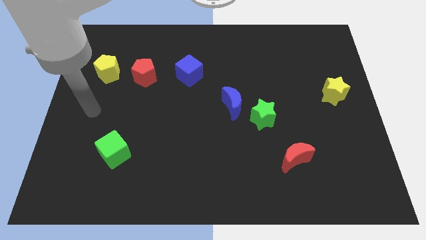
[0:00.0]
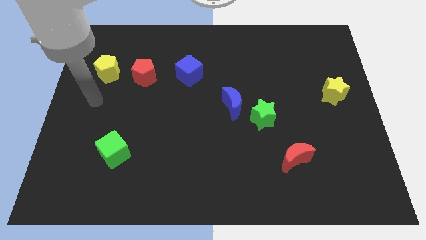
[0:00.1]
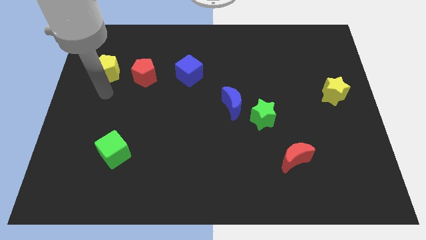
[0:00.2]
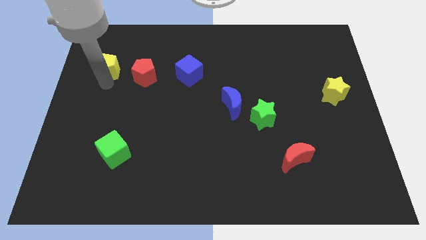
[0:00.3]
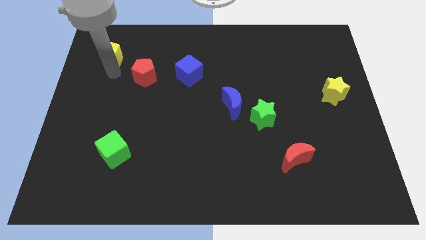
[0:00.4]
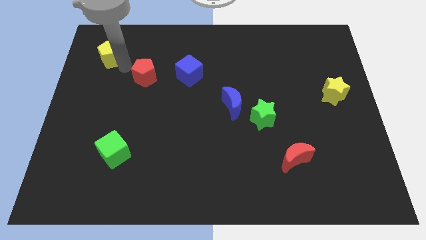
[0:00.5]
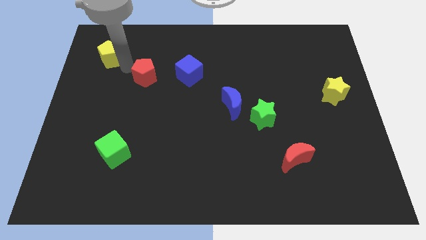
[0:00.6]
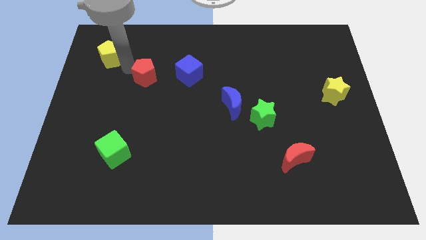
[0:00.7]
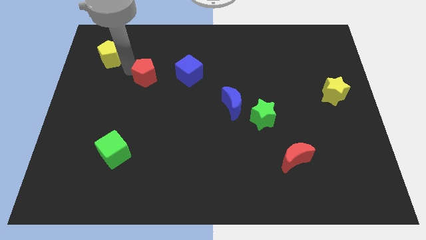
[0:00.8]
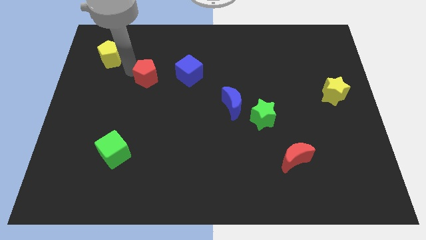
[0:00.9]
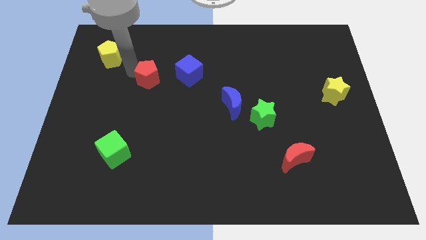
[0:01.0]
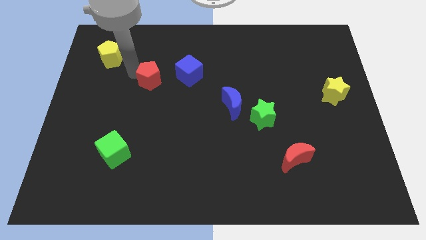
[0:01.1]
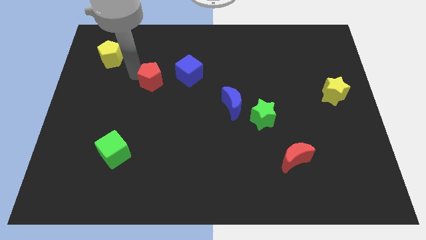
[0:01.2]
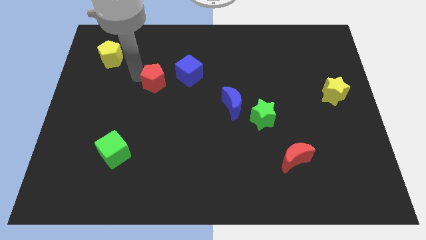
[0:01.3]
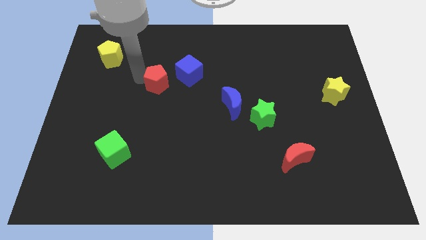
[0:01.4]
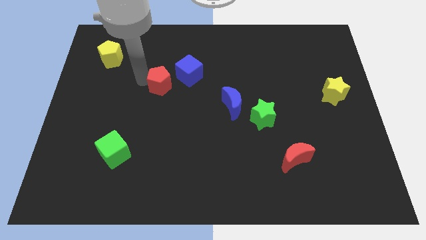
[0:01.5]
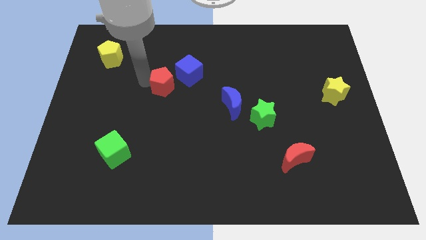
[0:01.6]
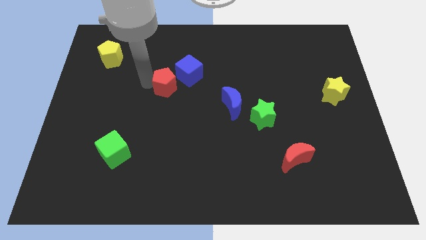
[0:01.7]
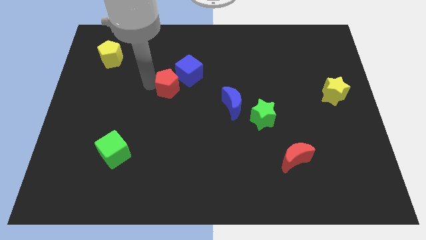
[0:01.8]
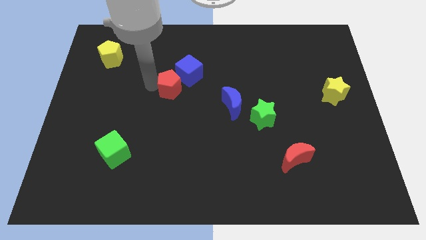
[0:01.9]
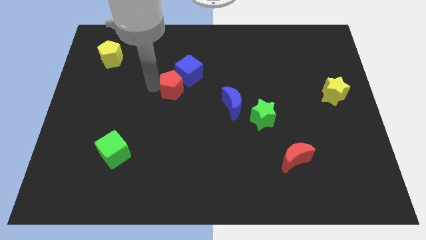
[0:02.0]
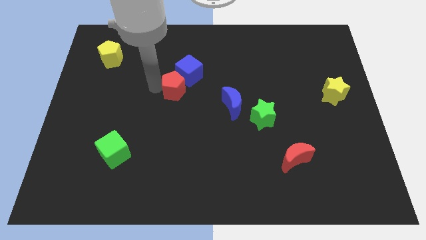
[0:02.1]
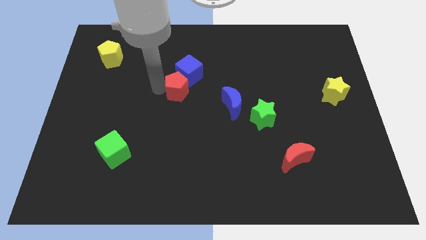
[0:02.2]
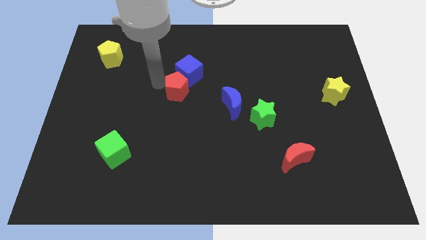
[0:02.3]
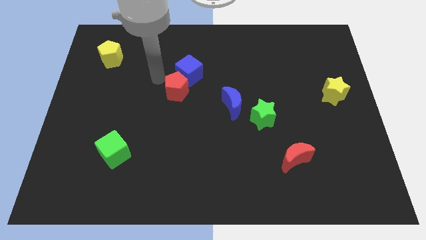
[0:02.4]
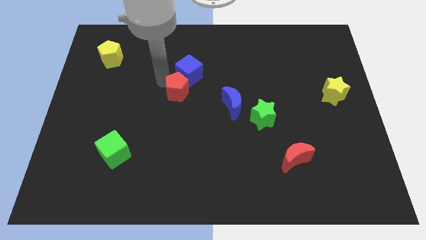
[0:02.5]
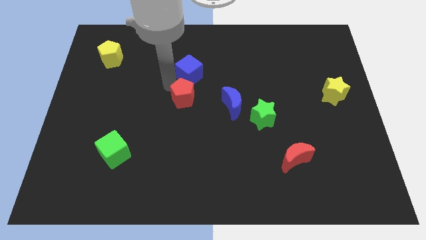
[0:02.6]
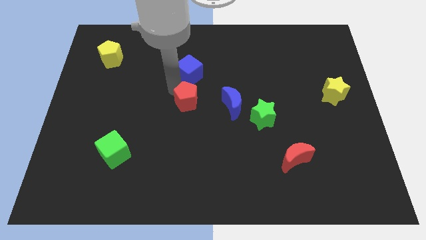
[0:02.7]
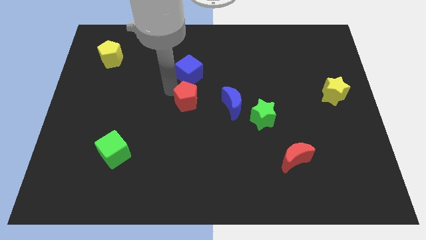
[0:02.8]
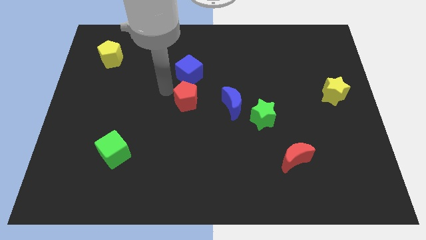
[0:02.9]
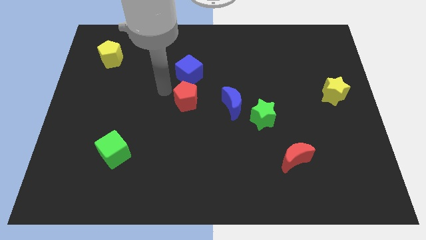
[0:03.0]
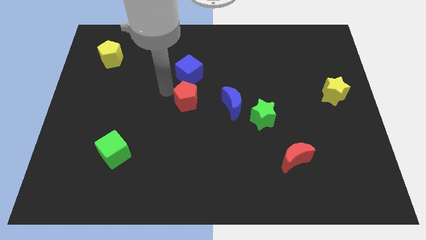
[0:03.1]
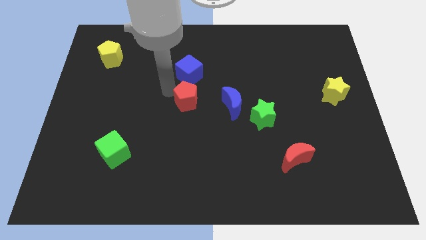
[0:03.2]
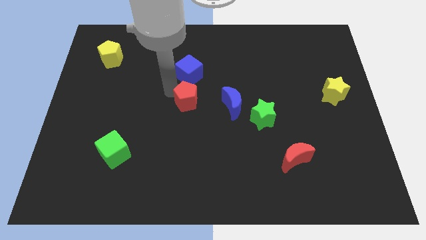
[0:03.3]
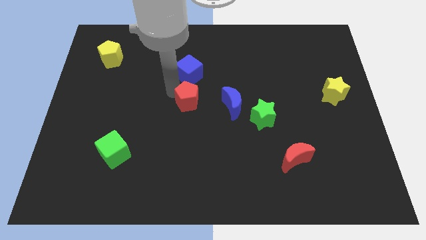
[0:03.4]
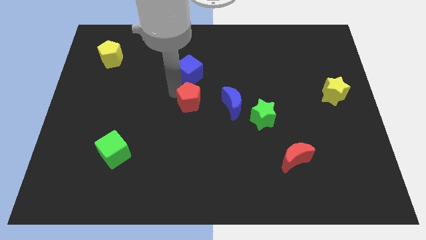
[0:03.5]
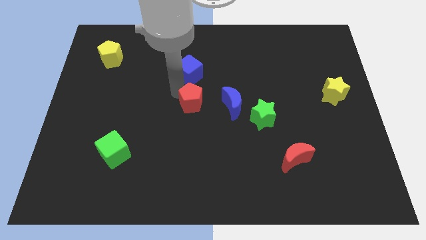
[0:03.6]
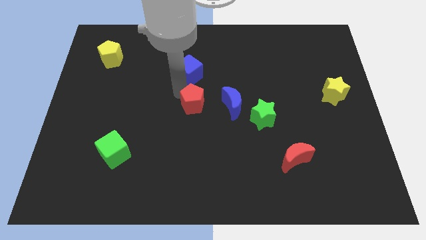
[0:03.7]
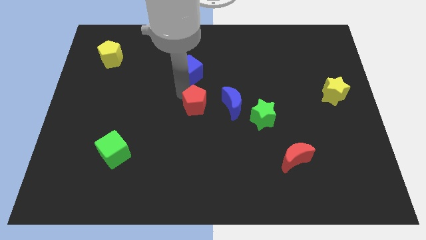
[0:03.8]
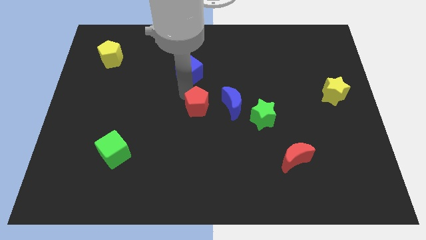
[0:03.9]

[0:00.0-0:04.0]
put the red pentagon to the left of the green star

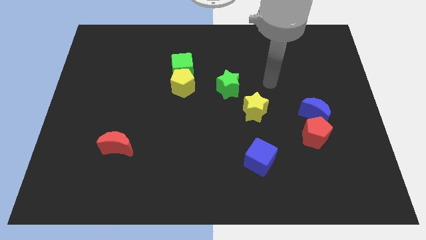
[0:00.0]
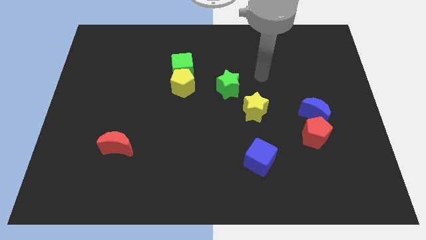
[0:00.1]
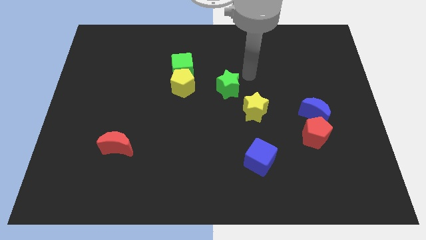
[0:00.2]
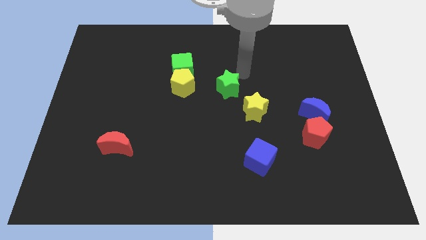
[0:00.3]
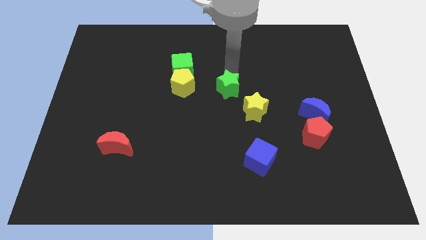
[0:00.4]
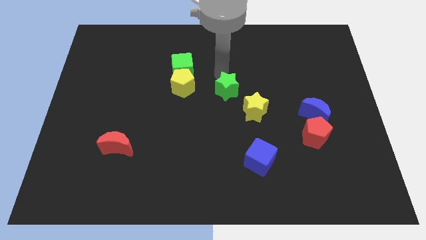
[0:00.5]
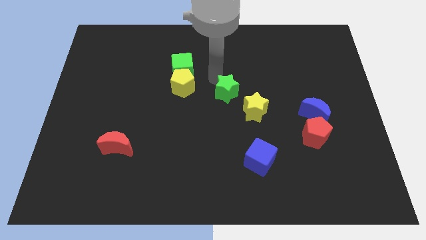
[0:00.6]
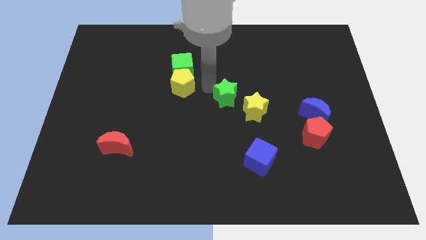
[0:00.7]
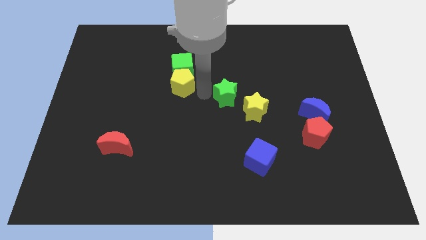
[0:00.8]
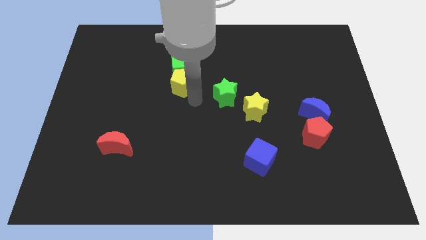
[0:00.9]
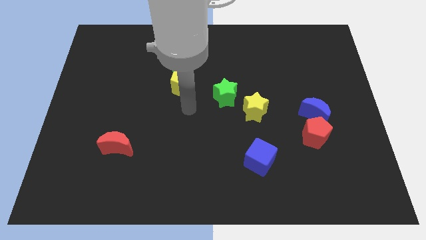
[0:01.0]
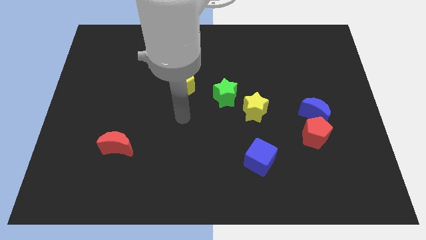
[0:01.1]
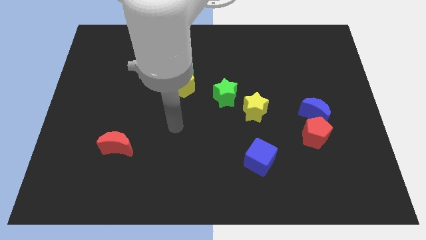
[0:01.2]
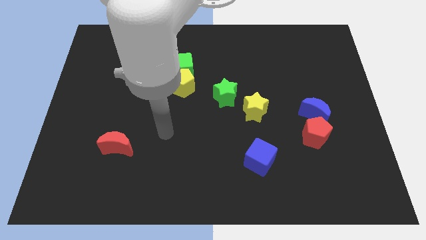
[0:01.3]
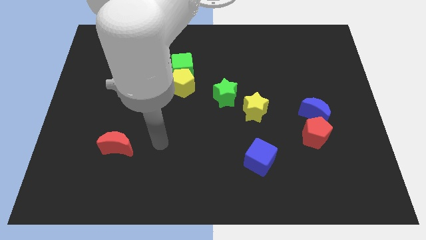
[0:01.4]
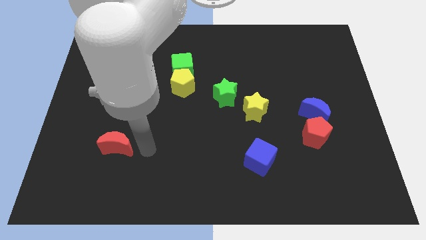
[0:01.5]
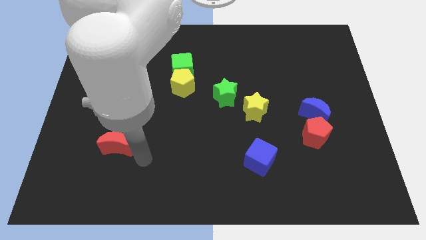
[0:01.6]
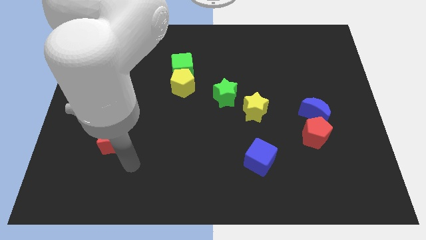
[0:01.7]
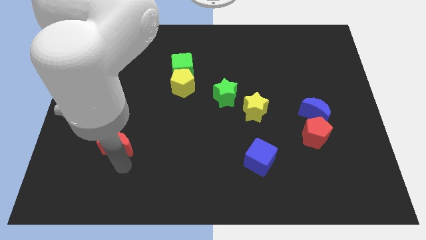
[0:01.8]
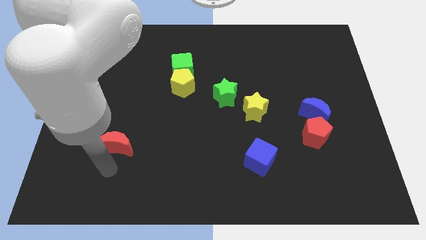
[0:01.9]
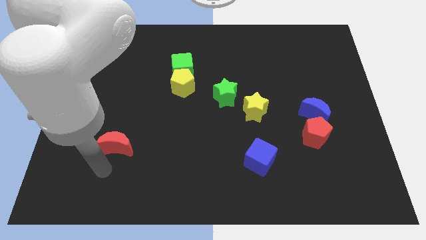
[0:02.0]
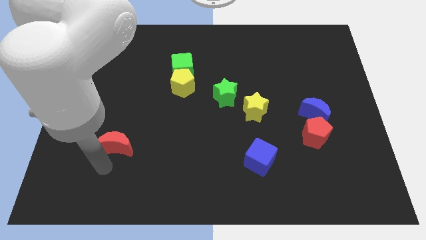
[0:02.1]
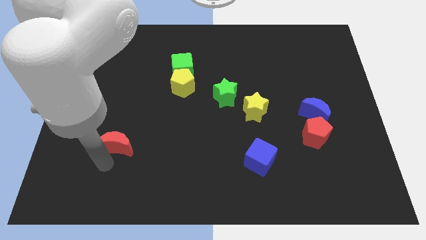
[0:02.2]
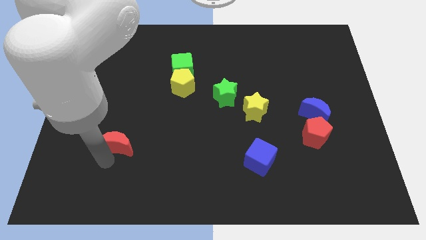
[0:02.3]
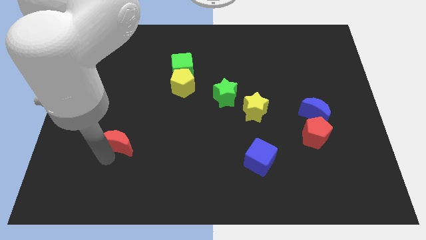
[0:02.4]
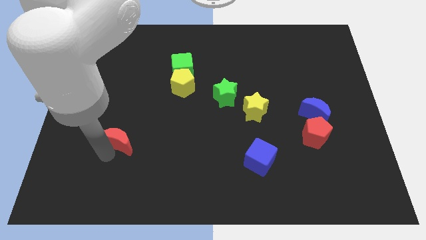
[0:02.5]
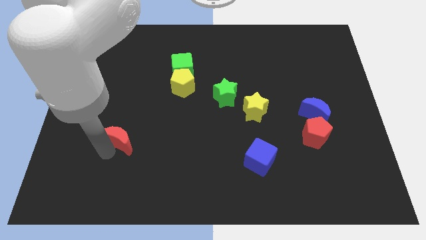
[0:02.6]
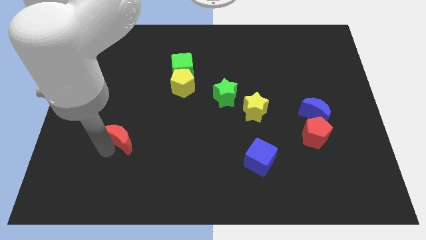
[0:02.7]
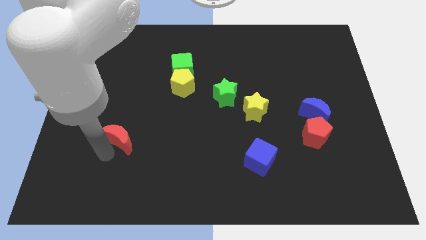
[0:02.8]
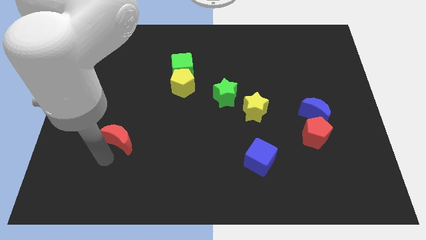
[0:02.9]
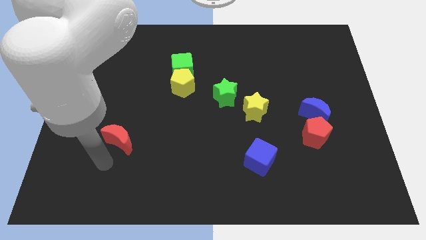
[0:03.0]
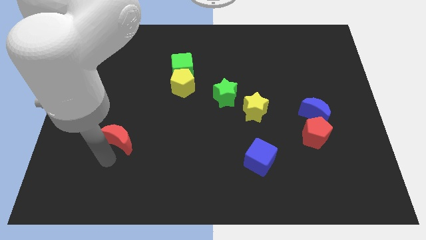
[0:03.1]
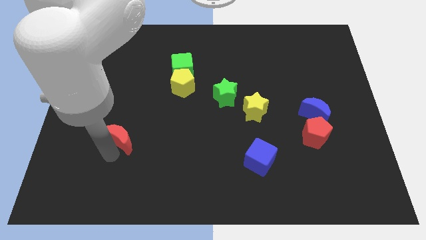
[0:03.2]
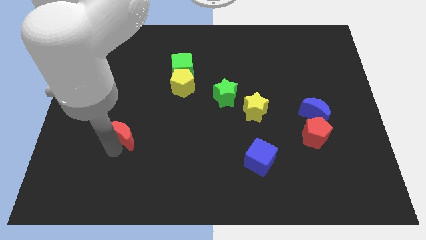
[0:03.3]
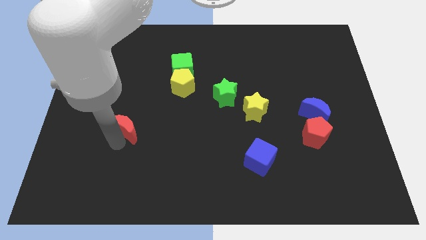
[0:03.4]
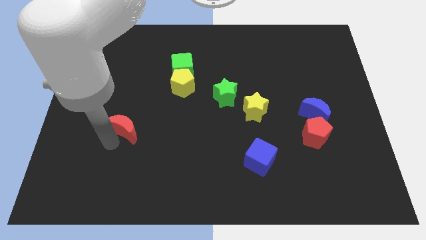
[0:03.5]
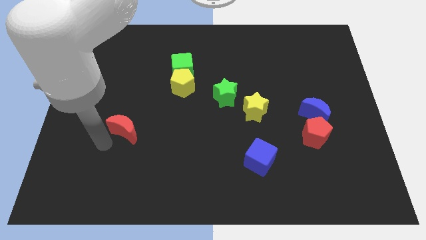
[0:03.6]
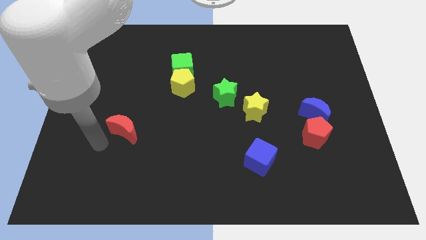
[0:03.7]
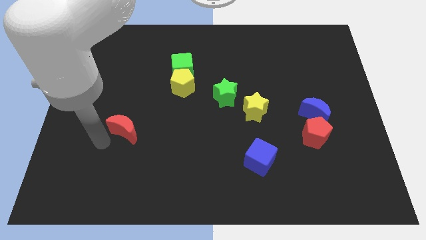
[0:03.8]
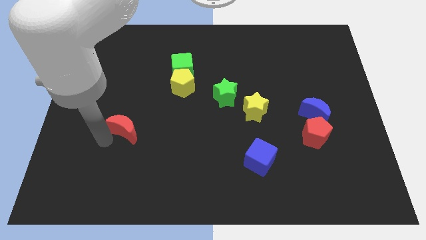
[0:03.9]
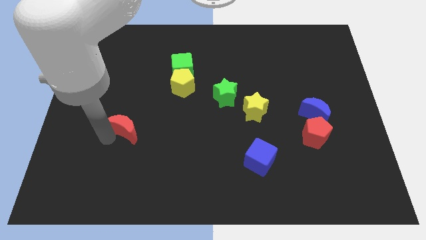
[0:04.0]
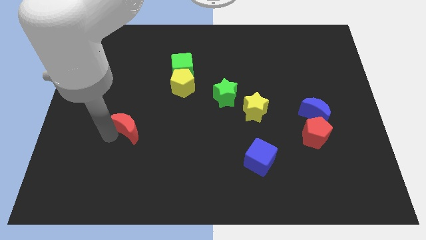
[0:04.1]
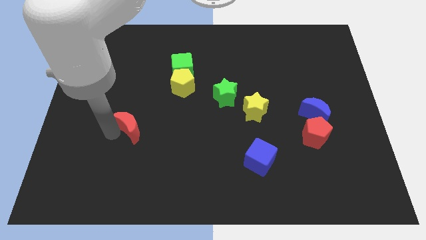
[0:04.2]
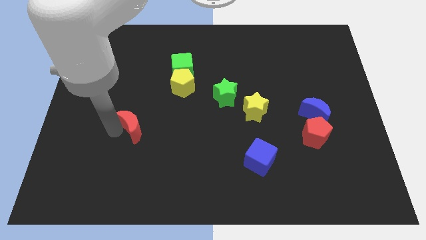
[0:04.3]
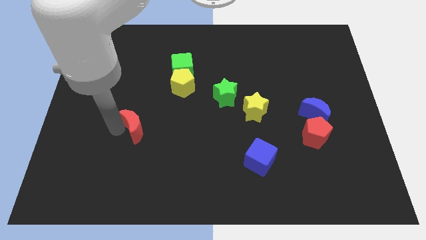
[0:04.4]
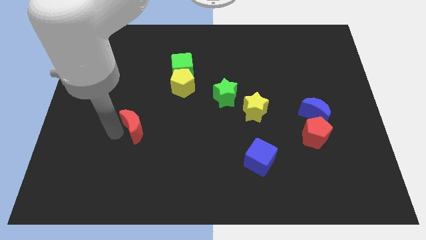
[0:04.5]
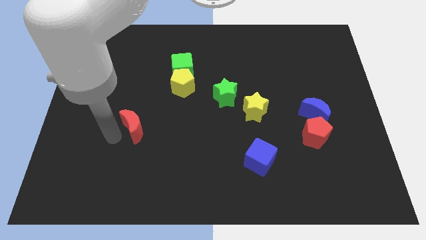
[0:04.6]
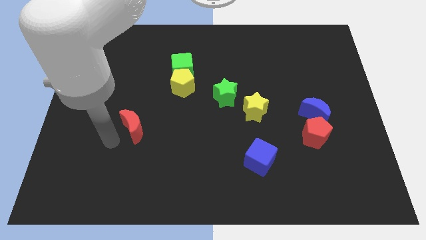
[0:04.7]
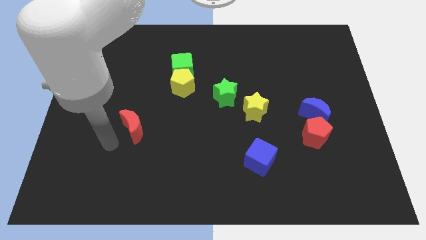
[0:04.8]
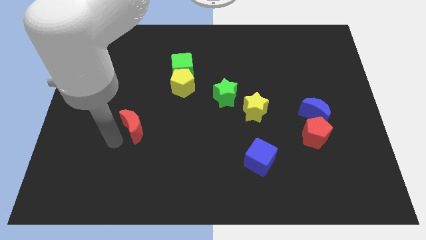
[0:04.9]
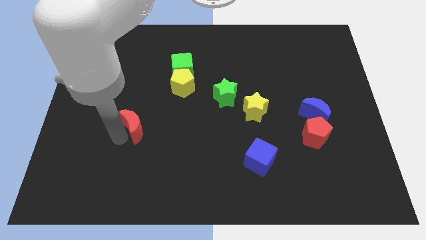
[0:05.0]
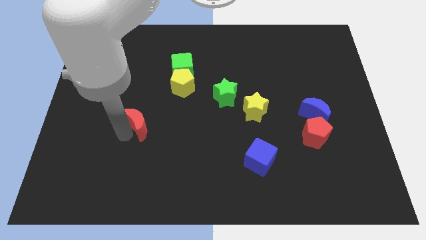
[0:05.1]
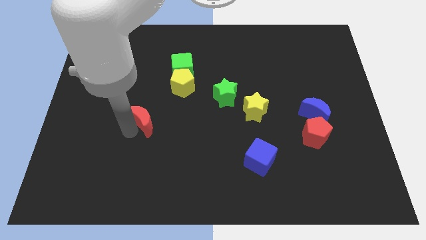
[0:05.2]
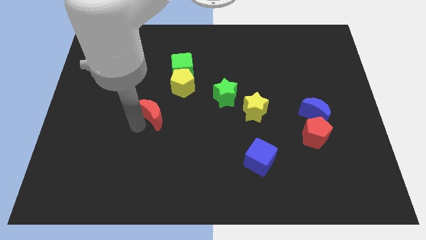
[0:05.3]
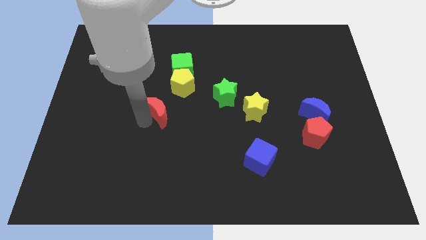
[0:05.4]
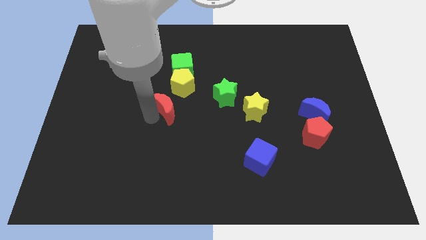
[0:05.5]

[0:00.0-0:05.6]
move the red moon to the bottom side of the green cube
